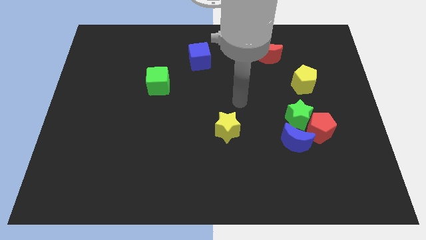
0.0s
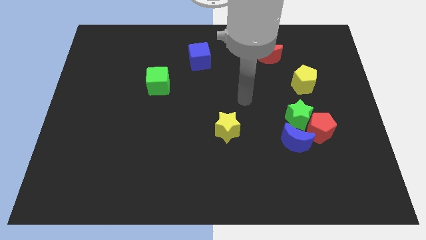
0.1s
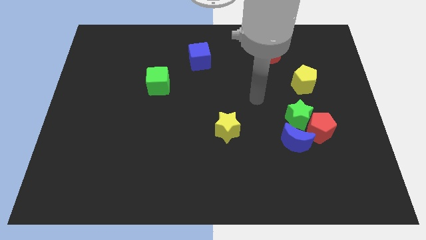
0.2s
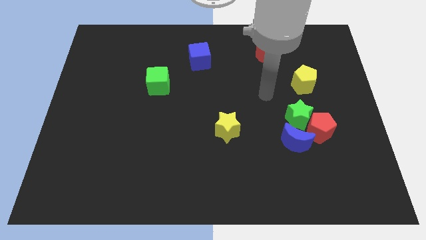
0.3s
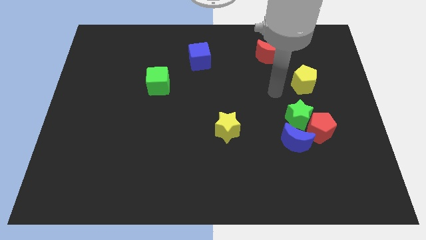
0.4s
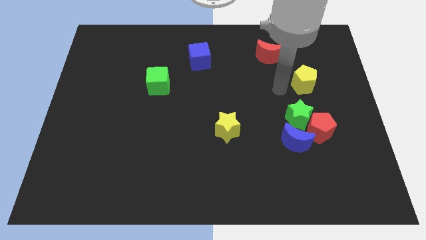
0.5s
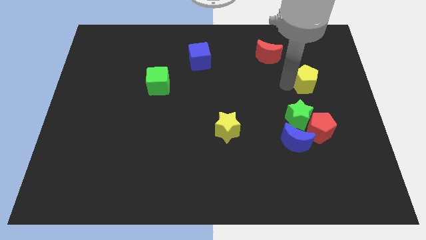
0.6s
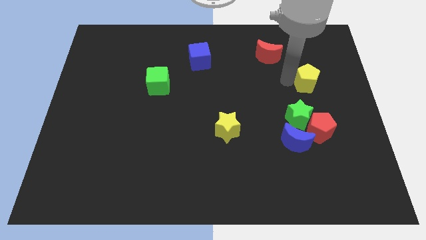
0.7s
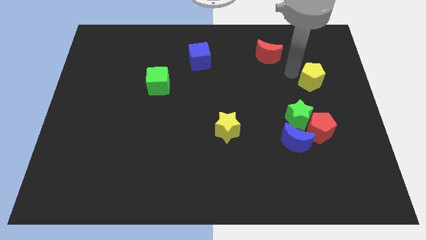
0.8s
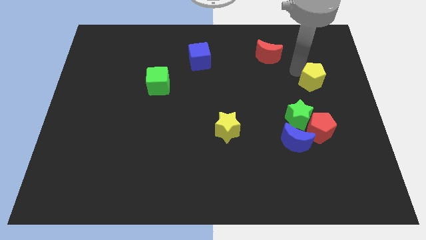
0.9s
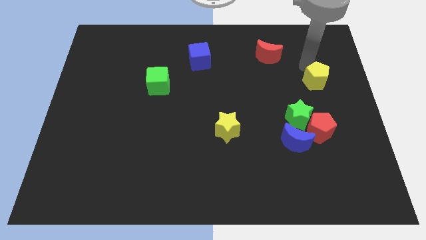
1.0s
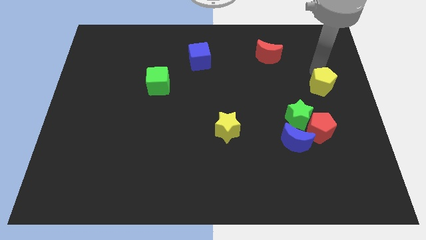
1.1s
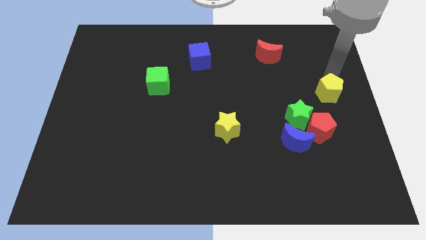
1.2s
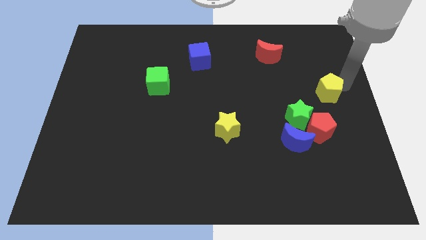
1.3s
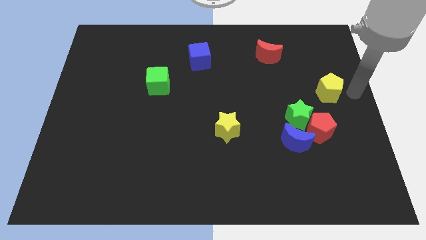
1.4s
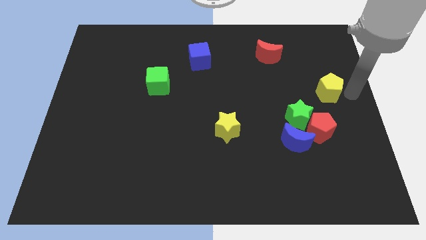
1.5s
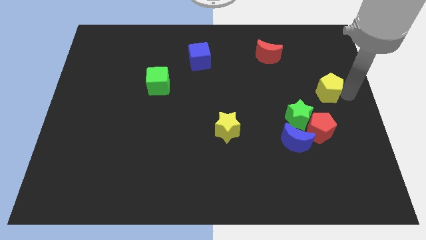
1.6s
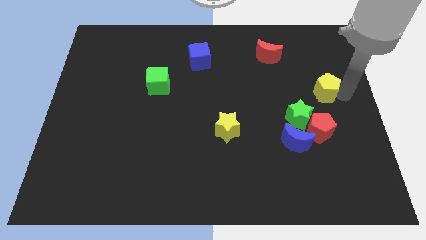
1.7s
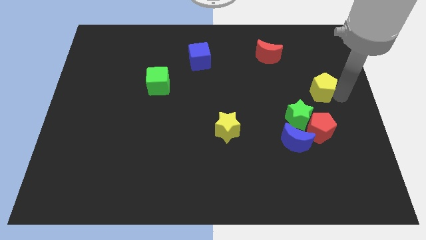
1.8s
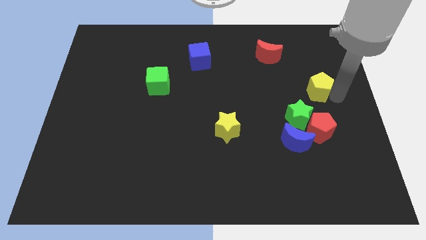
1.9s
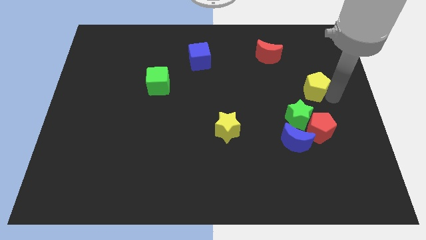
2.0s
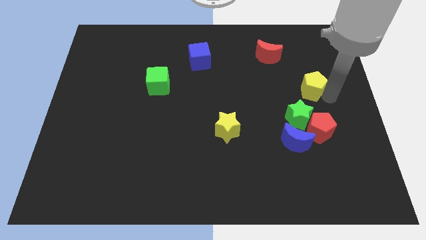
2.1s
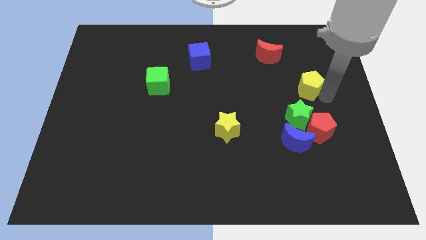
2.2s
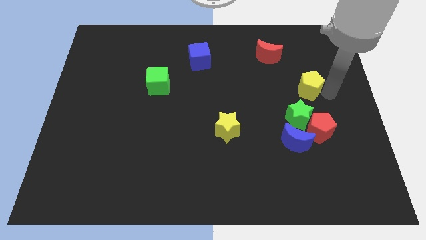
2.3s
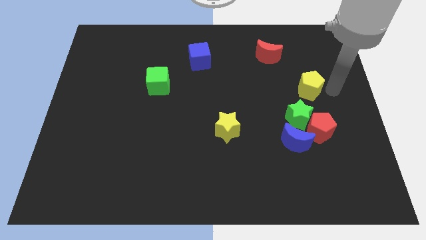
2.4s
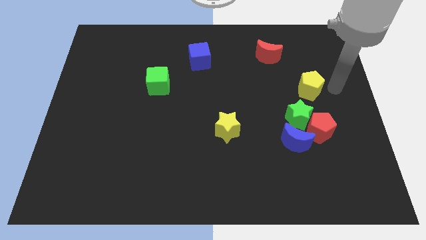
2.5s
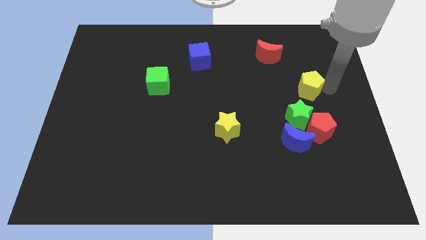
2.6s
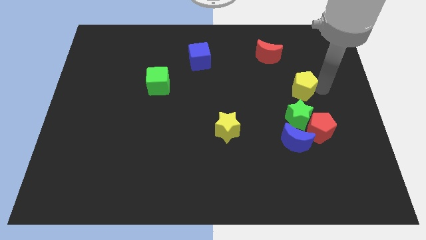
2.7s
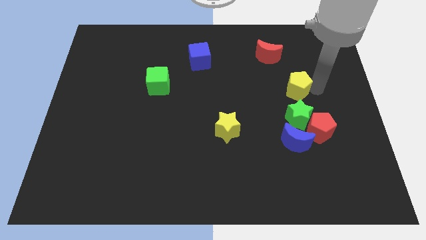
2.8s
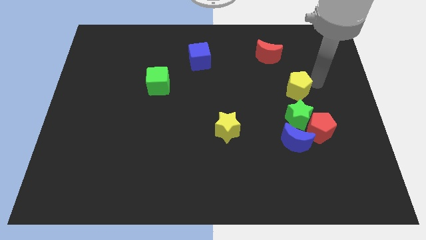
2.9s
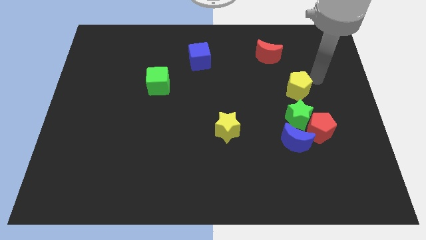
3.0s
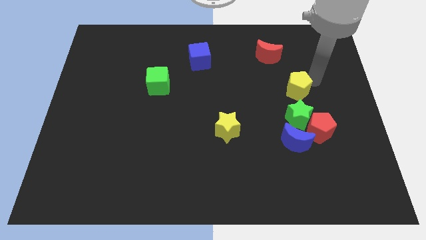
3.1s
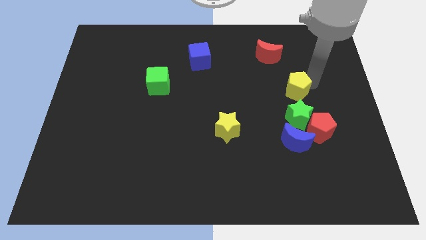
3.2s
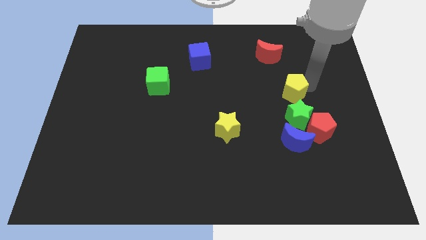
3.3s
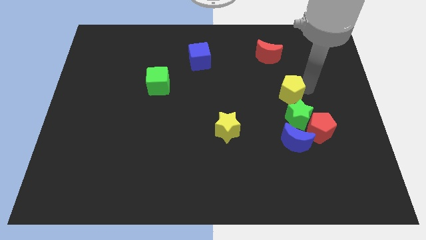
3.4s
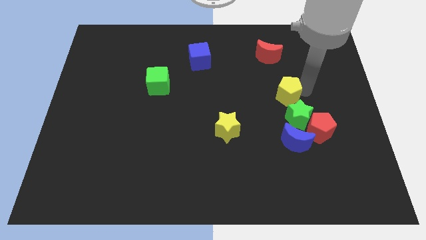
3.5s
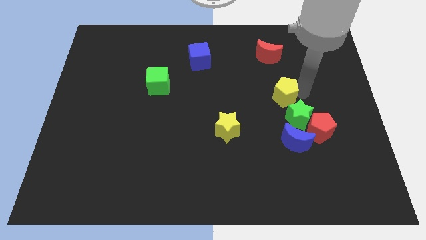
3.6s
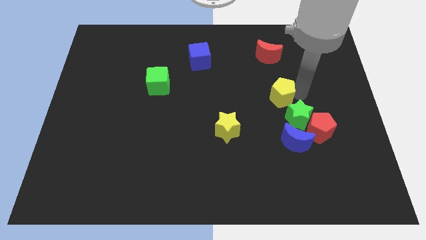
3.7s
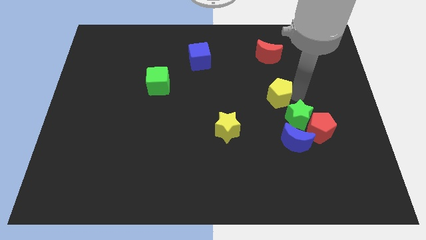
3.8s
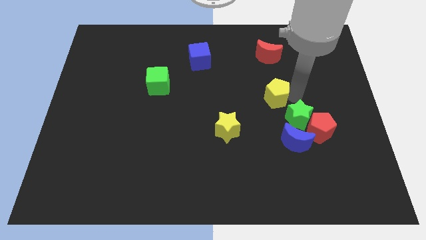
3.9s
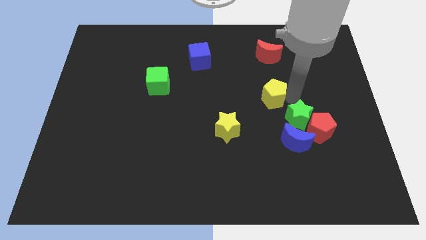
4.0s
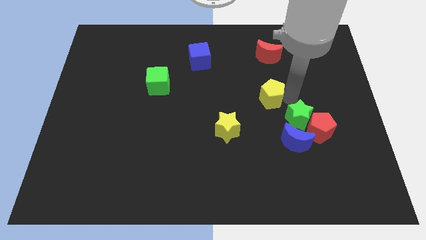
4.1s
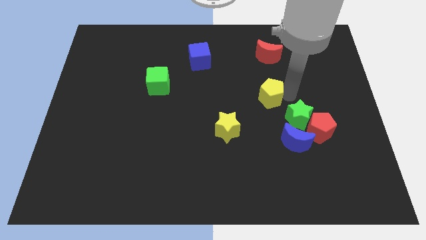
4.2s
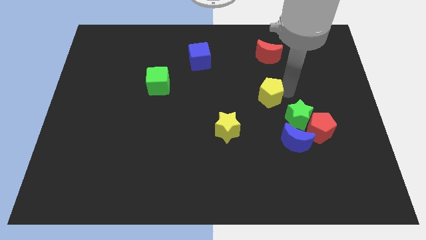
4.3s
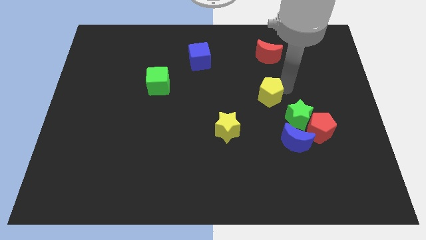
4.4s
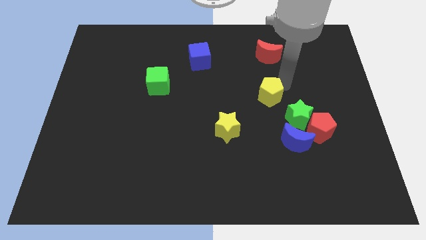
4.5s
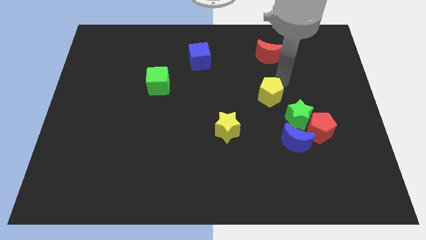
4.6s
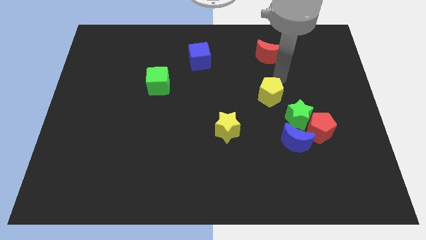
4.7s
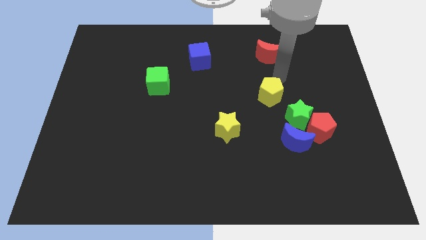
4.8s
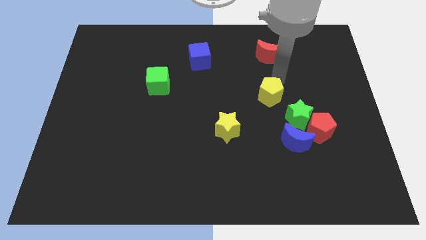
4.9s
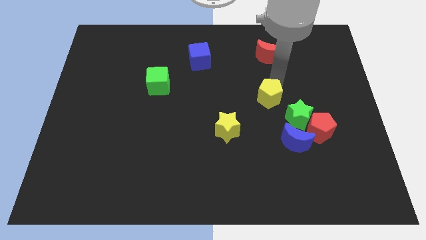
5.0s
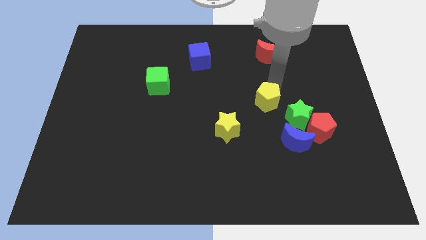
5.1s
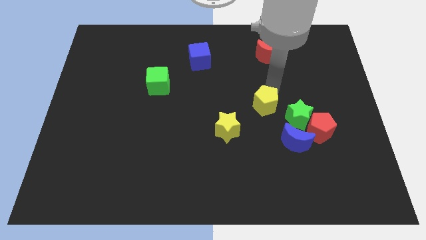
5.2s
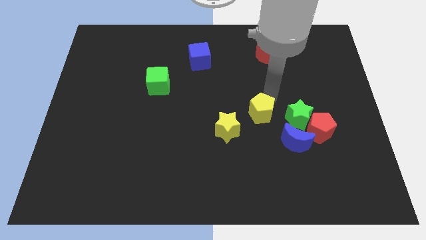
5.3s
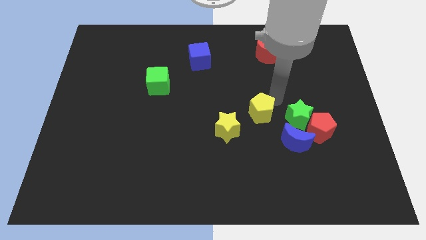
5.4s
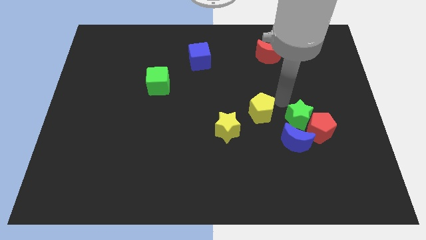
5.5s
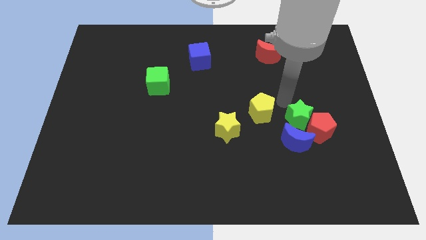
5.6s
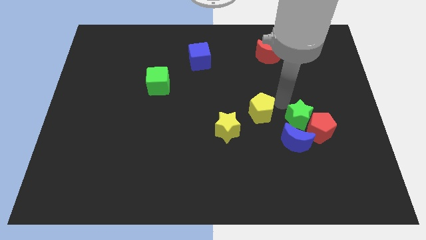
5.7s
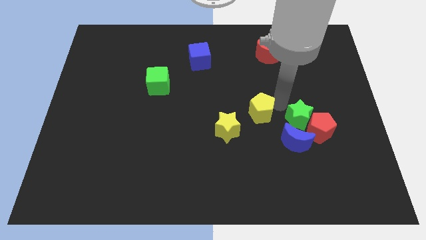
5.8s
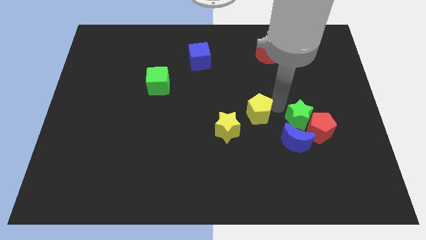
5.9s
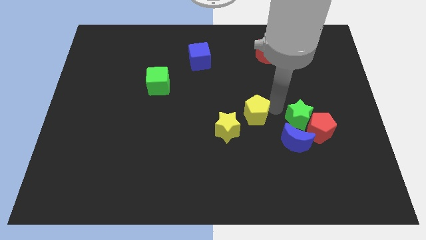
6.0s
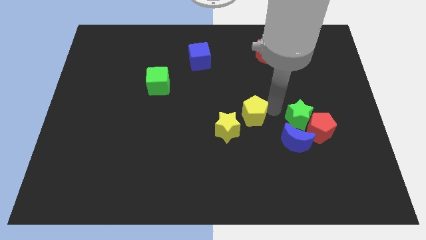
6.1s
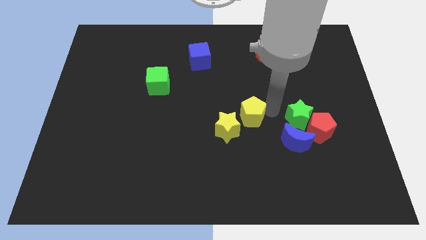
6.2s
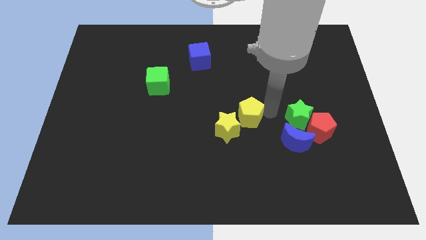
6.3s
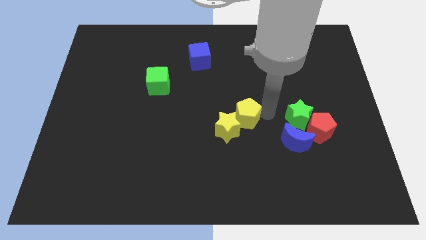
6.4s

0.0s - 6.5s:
slide the yellow pentagon to the yellow star

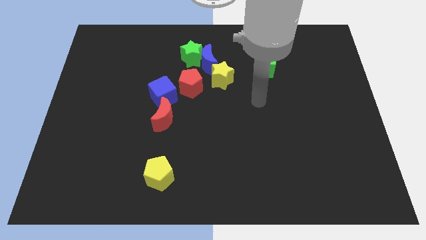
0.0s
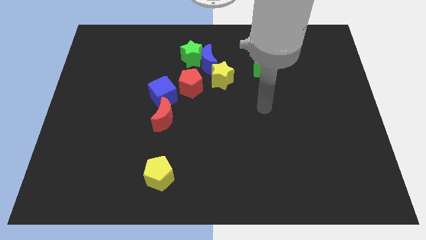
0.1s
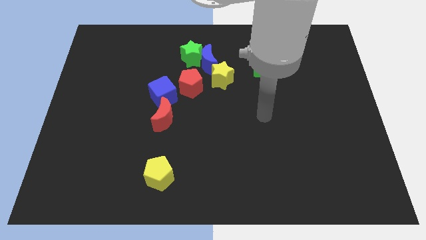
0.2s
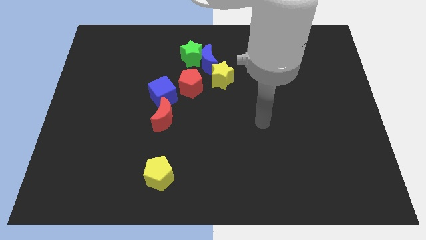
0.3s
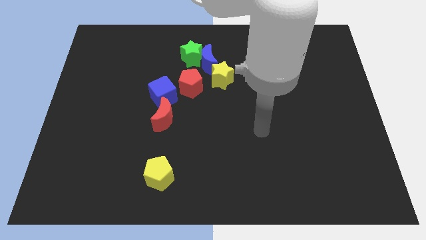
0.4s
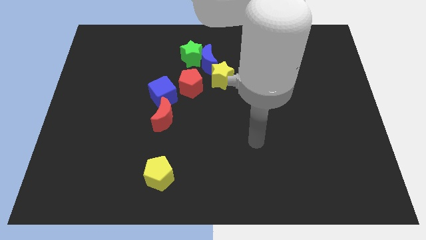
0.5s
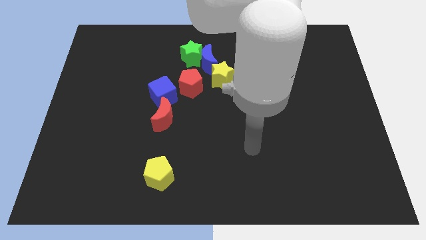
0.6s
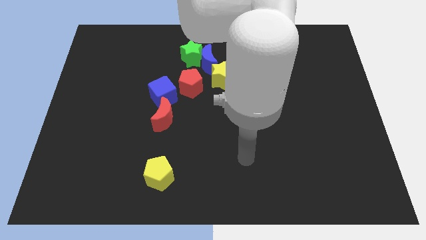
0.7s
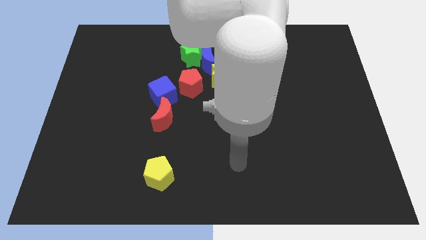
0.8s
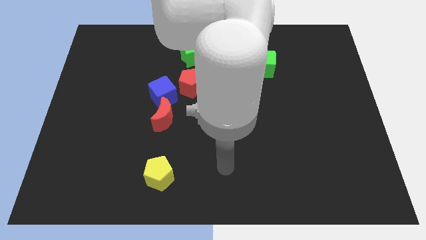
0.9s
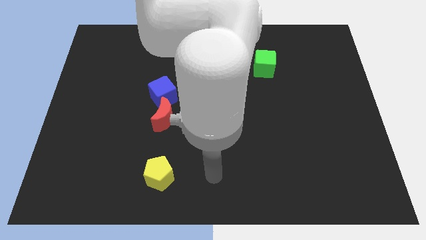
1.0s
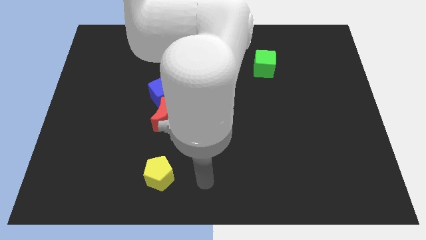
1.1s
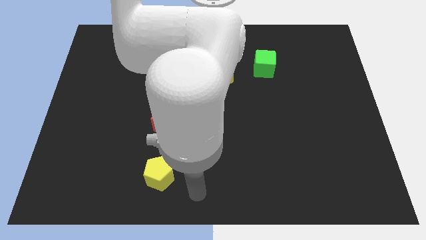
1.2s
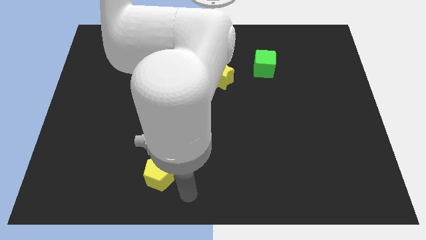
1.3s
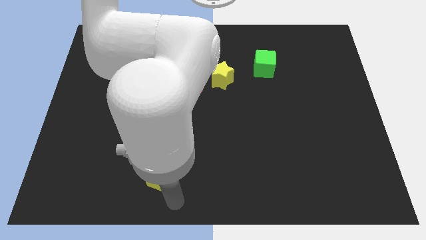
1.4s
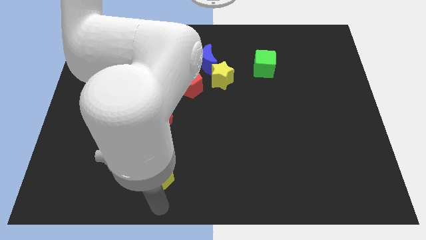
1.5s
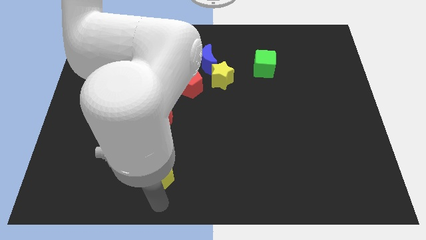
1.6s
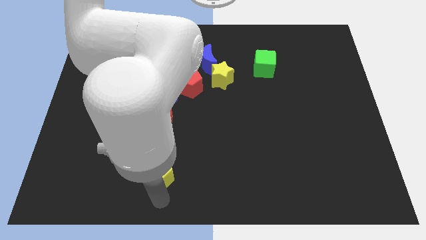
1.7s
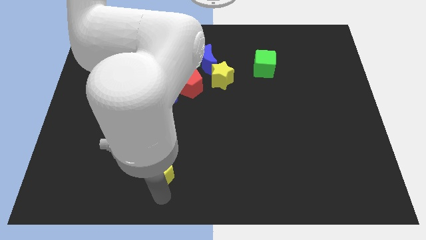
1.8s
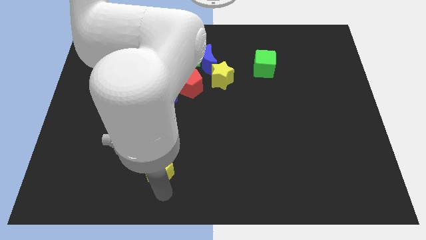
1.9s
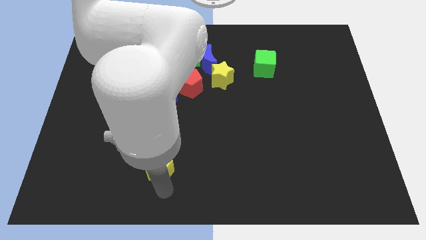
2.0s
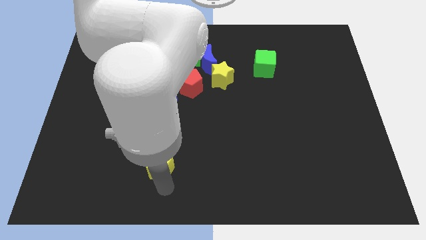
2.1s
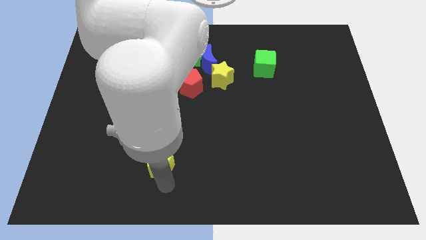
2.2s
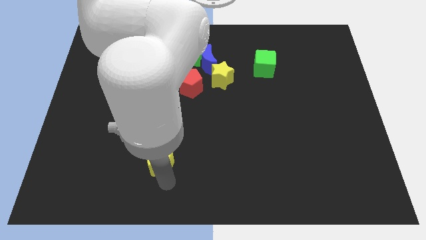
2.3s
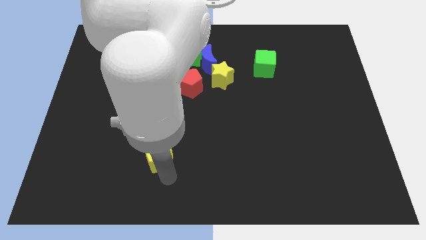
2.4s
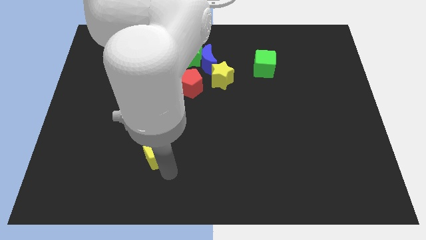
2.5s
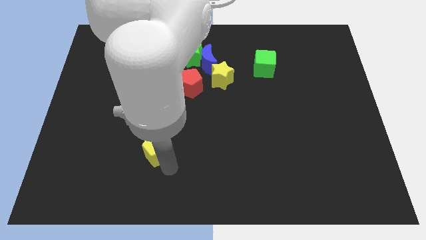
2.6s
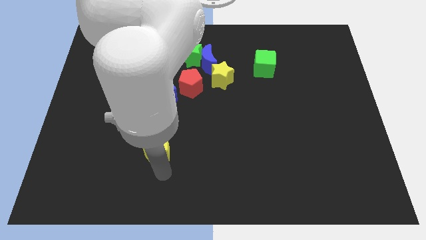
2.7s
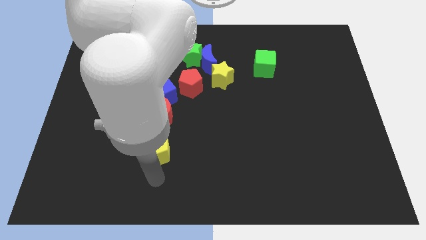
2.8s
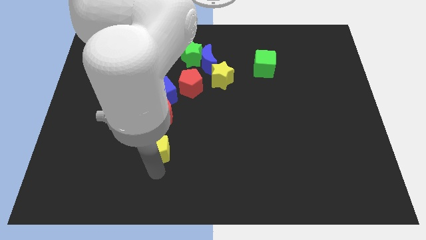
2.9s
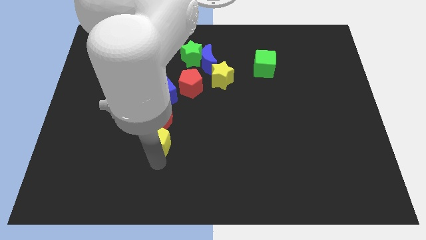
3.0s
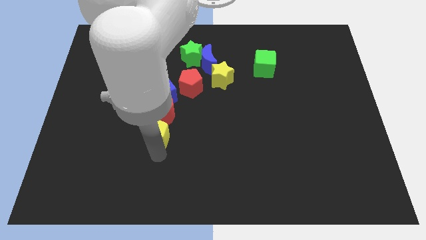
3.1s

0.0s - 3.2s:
slide the yellow pentagon towards the red moon
